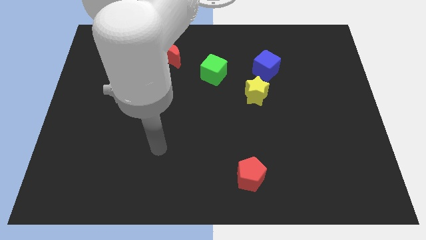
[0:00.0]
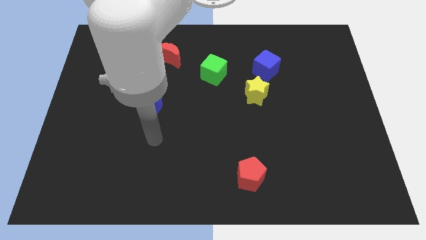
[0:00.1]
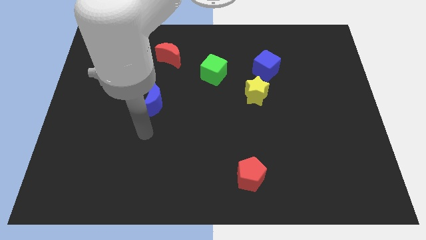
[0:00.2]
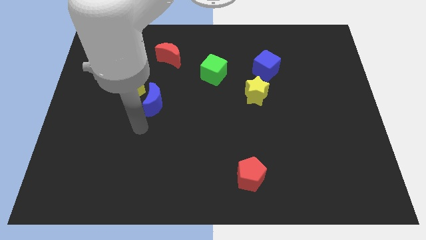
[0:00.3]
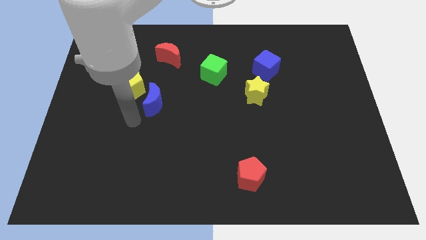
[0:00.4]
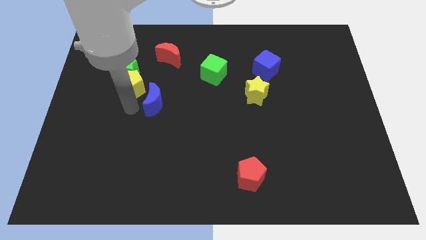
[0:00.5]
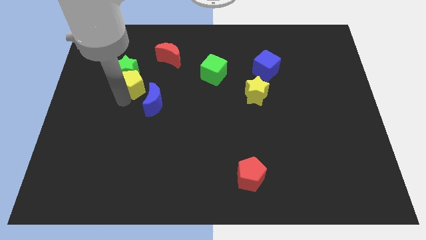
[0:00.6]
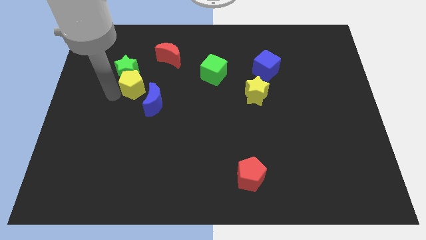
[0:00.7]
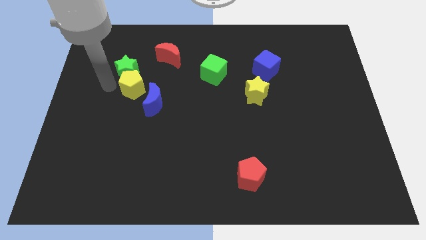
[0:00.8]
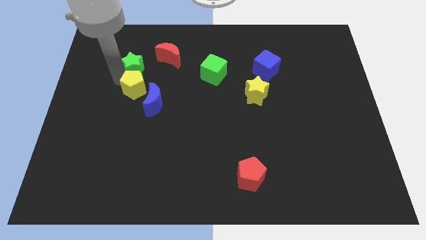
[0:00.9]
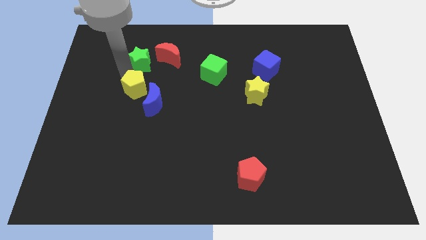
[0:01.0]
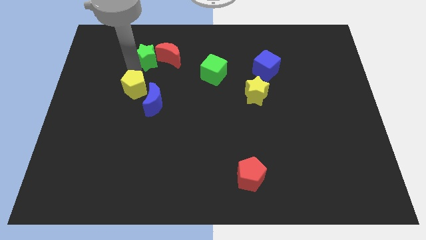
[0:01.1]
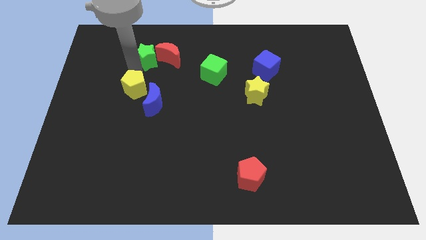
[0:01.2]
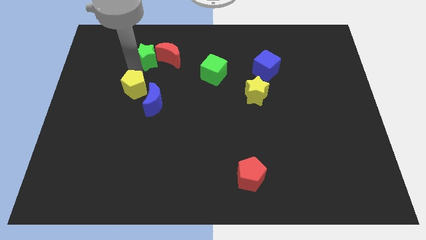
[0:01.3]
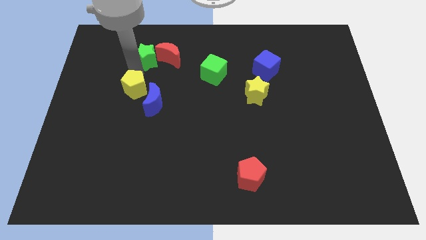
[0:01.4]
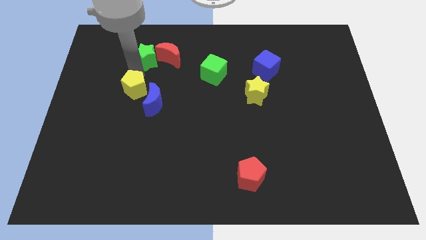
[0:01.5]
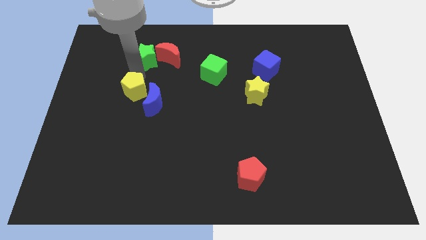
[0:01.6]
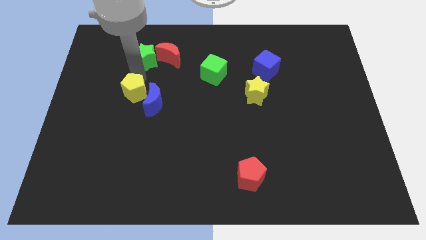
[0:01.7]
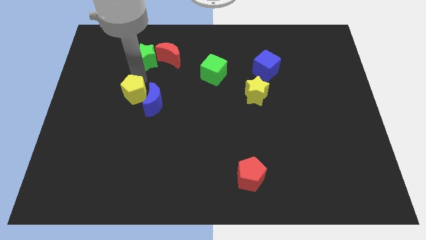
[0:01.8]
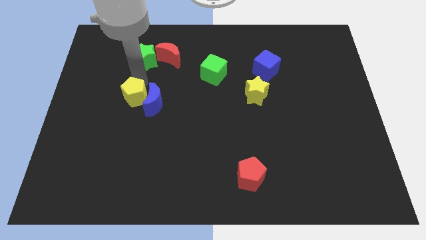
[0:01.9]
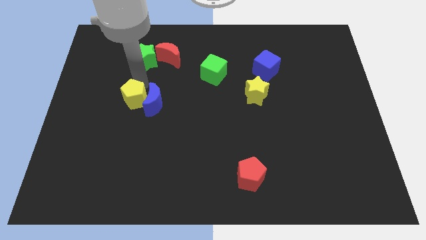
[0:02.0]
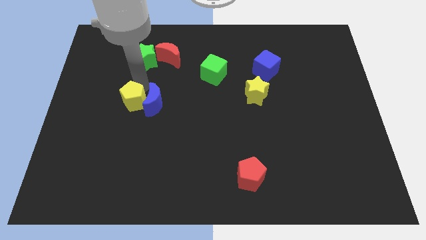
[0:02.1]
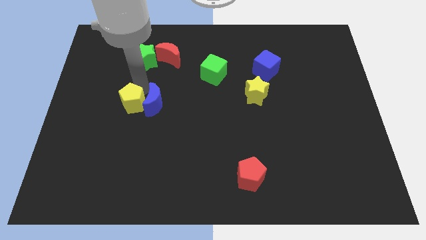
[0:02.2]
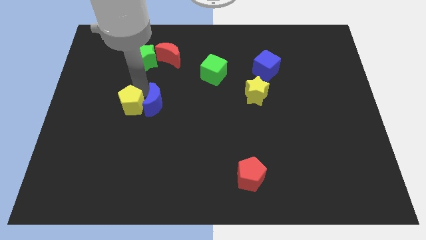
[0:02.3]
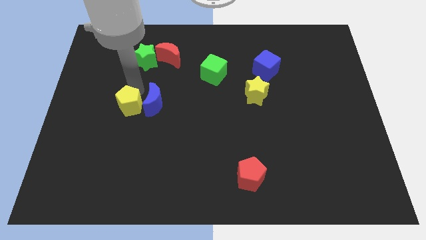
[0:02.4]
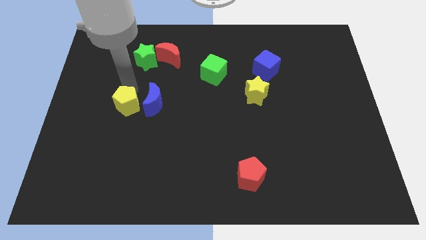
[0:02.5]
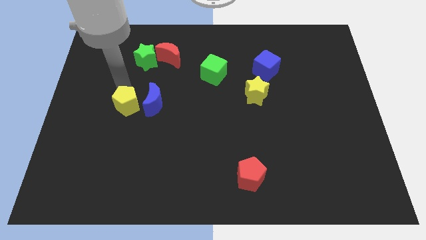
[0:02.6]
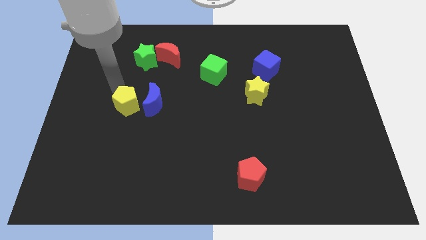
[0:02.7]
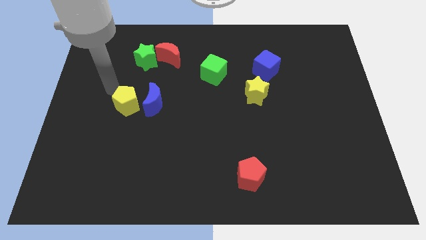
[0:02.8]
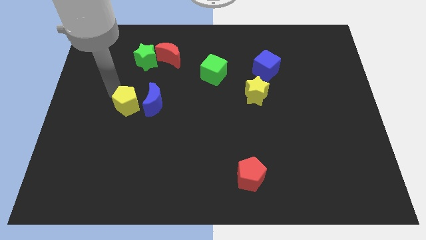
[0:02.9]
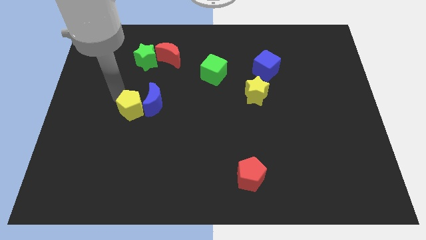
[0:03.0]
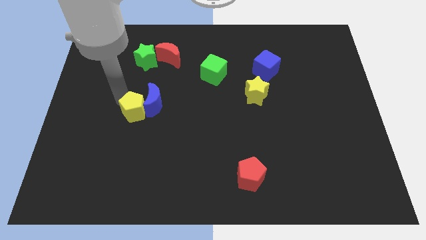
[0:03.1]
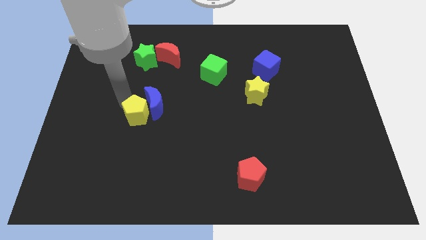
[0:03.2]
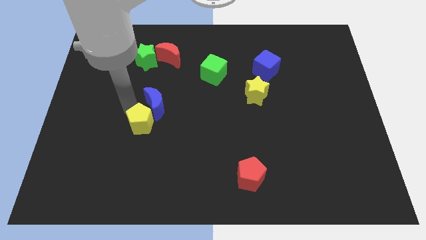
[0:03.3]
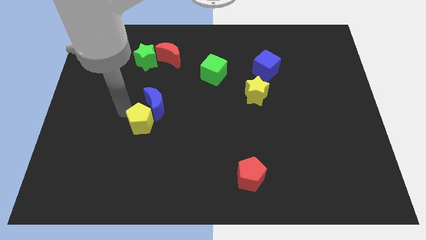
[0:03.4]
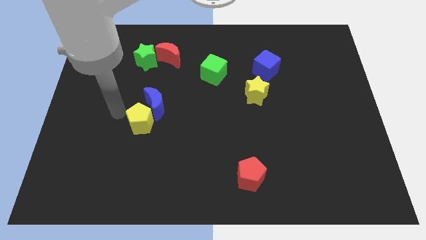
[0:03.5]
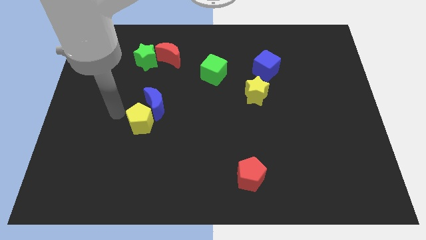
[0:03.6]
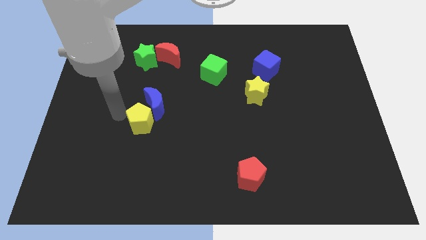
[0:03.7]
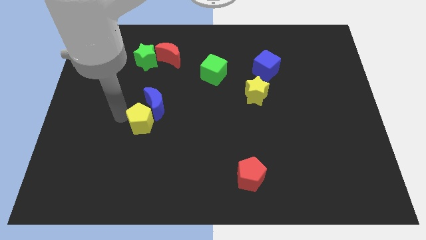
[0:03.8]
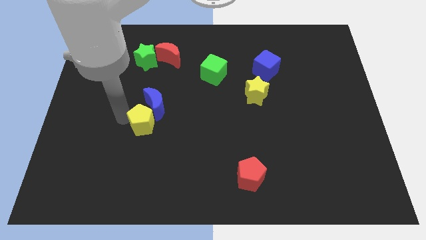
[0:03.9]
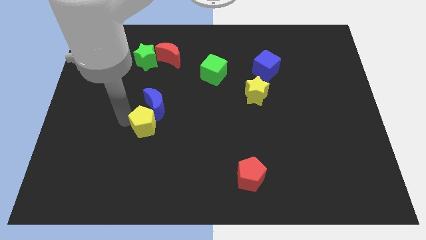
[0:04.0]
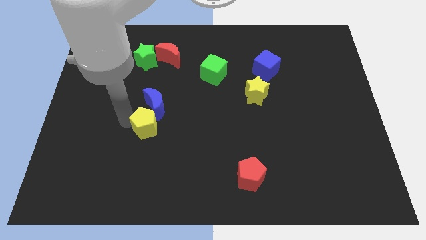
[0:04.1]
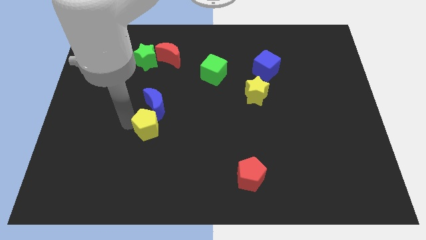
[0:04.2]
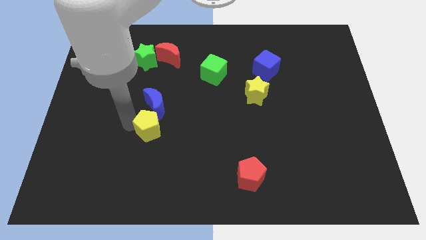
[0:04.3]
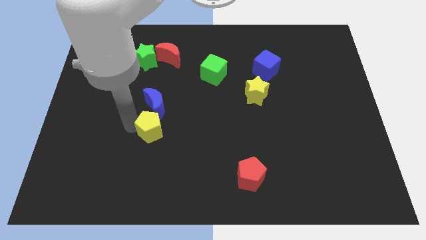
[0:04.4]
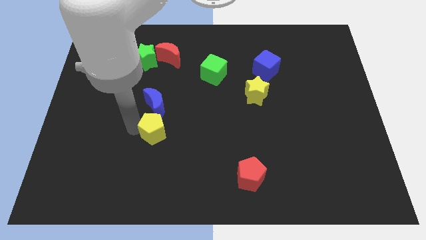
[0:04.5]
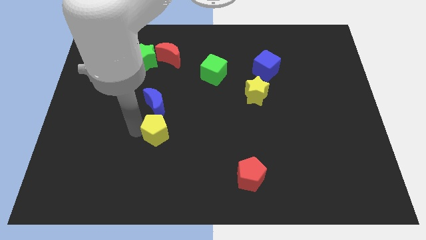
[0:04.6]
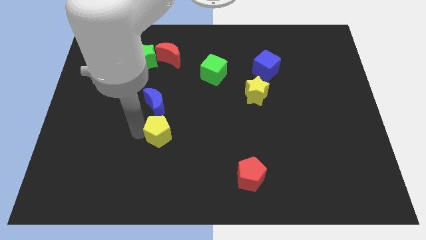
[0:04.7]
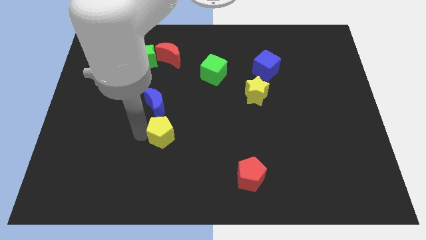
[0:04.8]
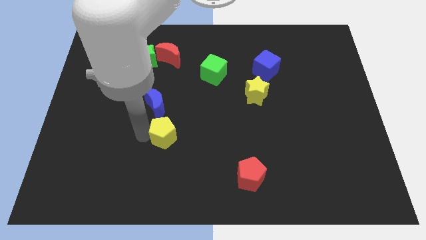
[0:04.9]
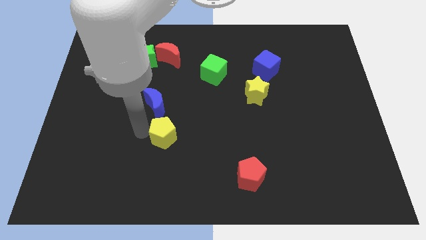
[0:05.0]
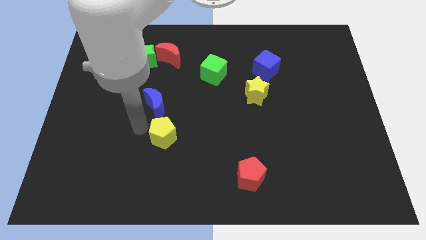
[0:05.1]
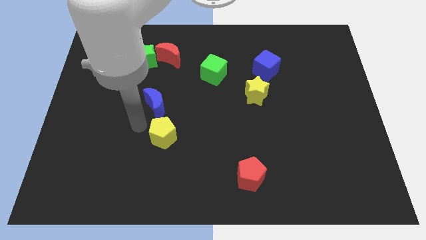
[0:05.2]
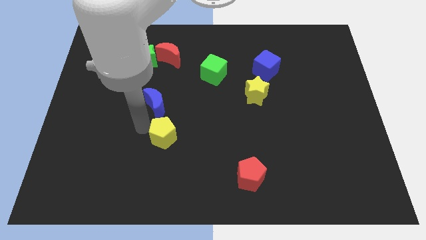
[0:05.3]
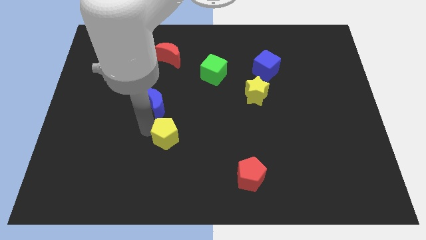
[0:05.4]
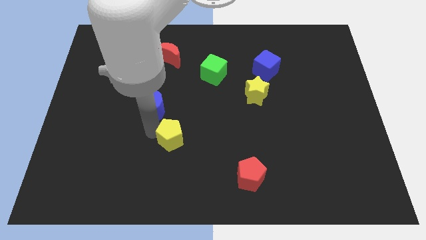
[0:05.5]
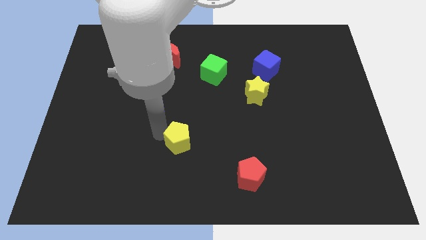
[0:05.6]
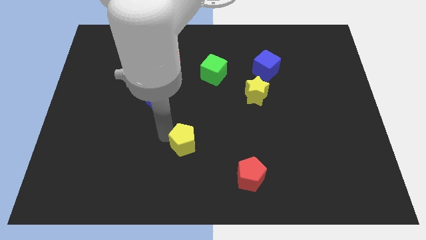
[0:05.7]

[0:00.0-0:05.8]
move the yellow pentagon down and then to the right

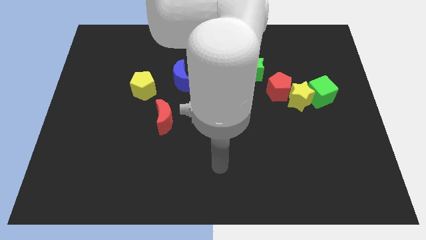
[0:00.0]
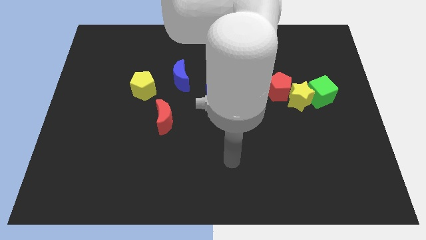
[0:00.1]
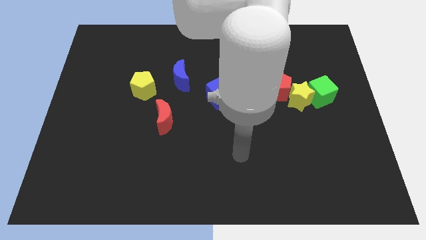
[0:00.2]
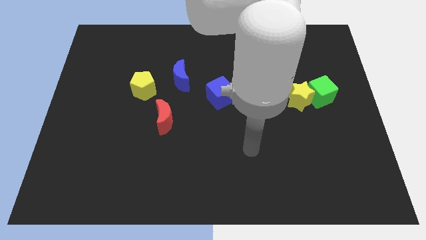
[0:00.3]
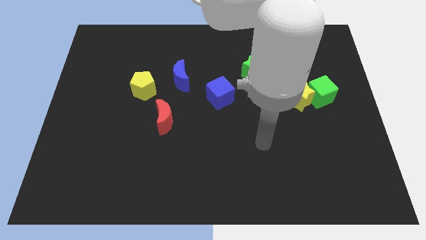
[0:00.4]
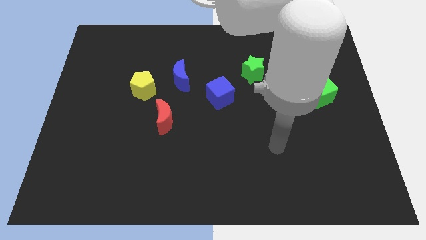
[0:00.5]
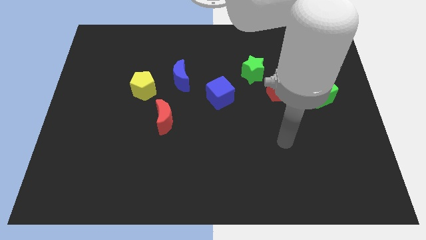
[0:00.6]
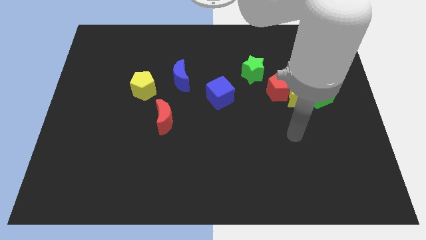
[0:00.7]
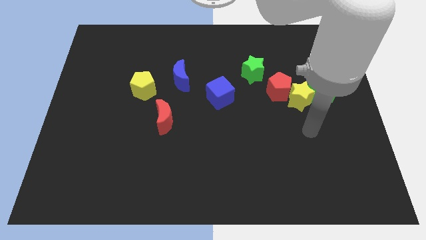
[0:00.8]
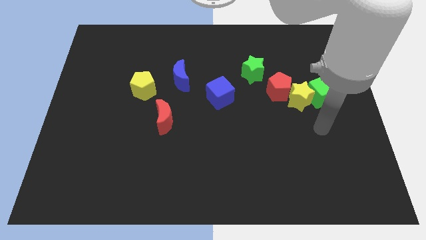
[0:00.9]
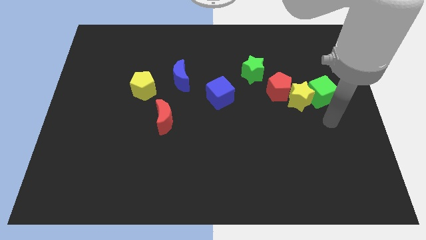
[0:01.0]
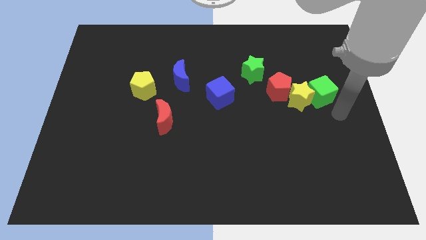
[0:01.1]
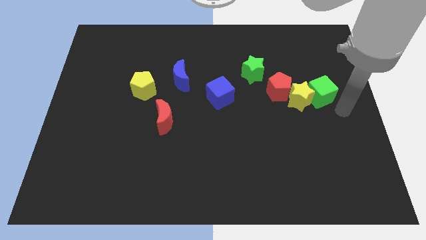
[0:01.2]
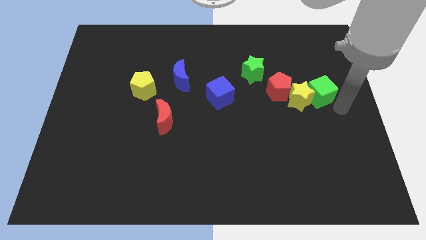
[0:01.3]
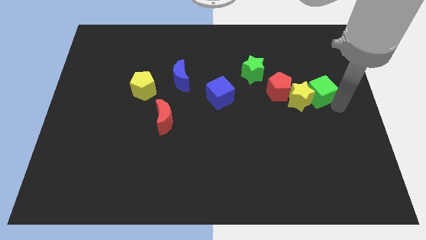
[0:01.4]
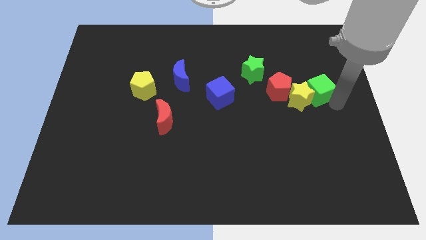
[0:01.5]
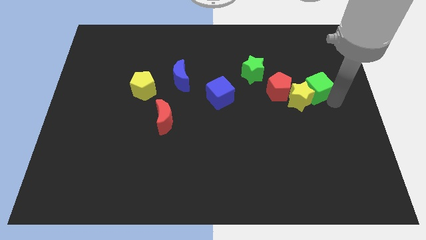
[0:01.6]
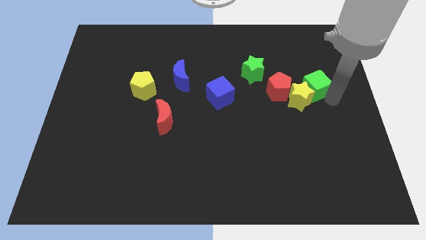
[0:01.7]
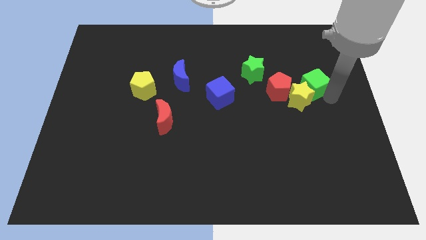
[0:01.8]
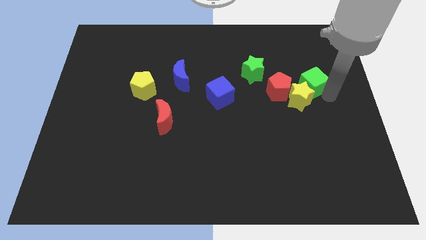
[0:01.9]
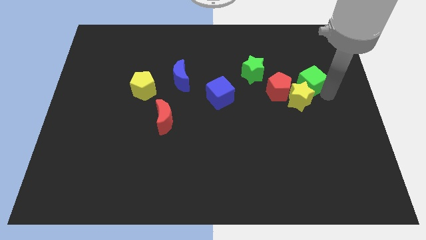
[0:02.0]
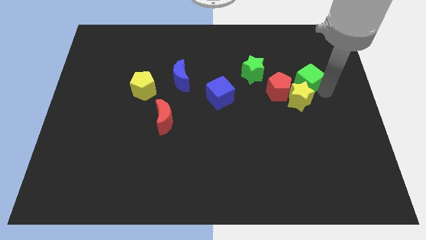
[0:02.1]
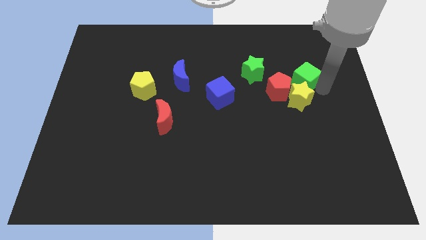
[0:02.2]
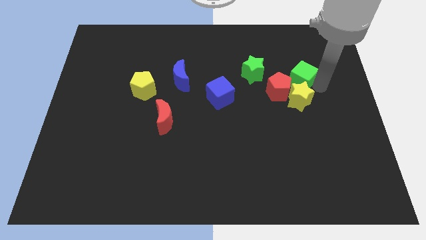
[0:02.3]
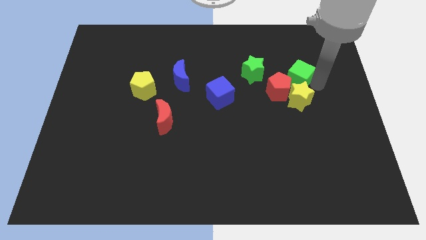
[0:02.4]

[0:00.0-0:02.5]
slightly move the green cube upwards and left diagonally

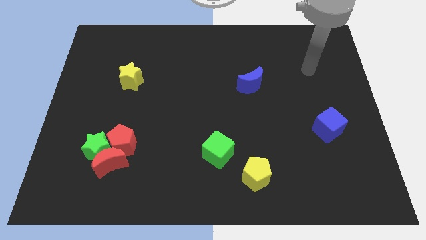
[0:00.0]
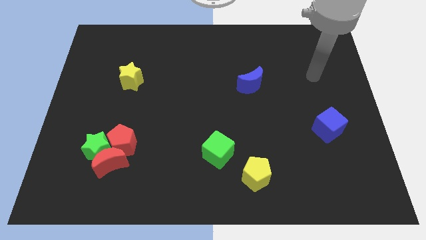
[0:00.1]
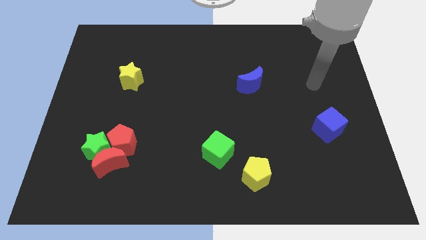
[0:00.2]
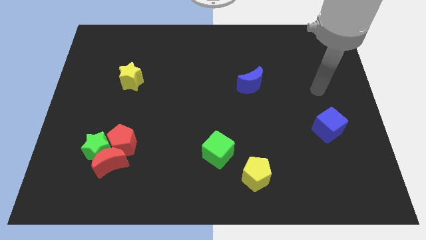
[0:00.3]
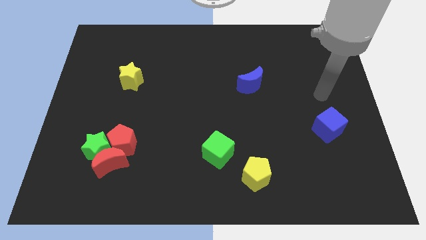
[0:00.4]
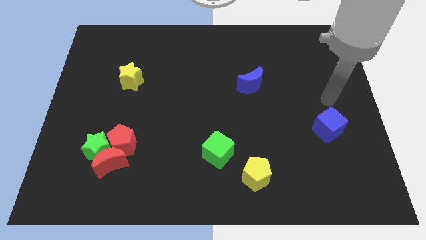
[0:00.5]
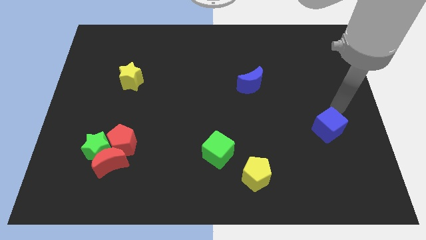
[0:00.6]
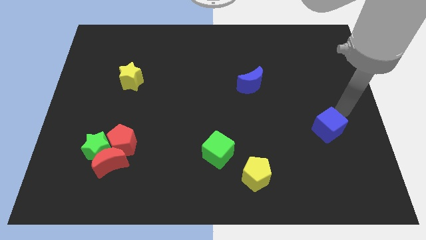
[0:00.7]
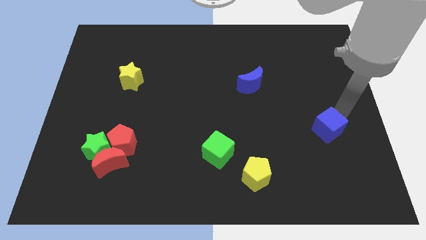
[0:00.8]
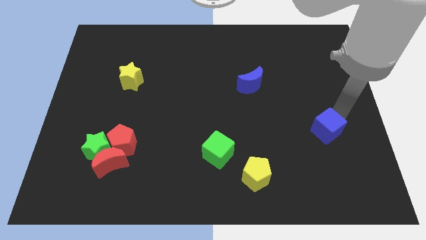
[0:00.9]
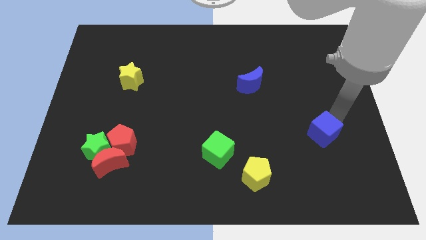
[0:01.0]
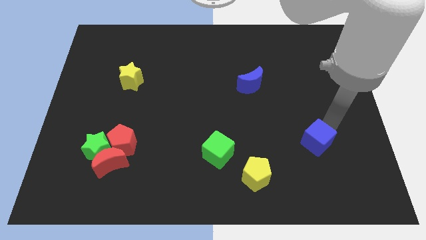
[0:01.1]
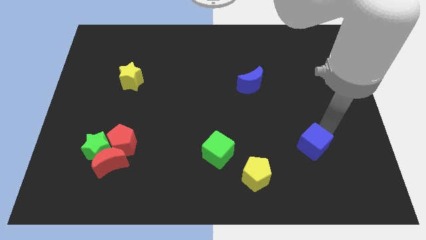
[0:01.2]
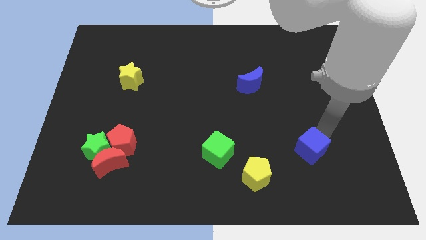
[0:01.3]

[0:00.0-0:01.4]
slide the blue cube diagonally down and left a little bit
